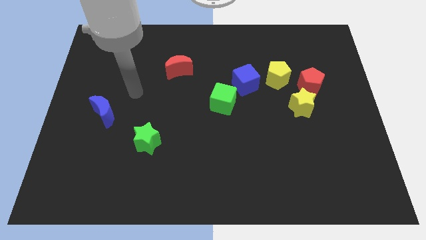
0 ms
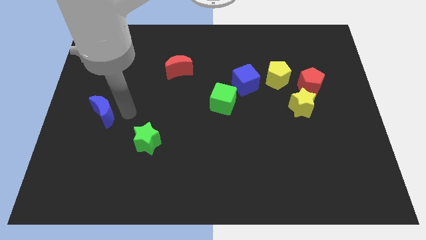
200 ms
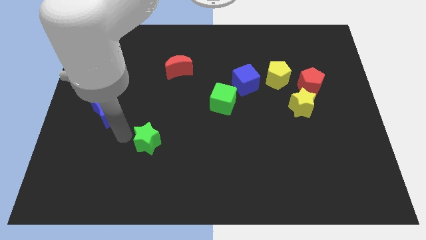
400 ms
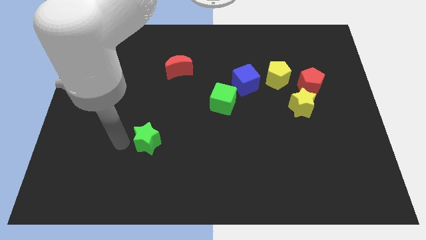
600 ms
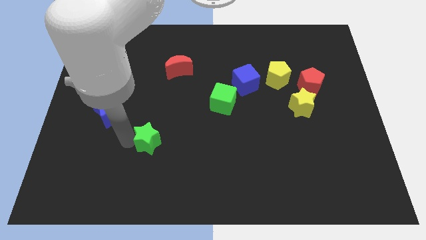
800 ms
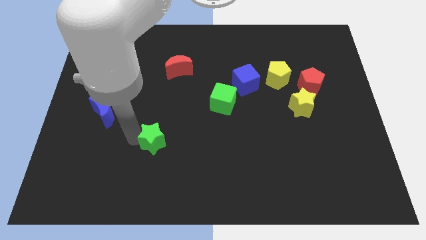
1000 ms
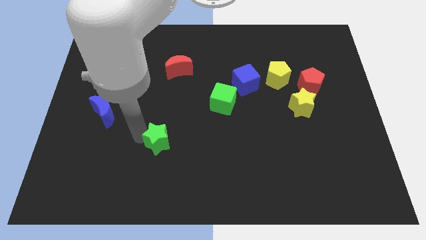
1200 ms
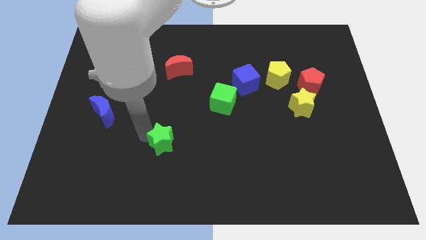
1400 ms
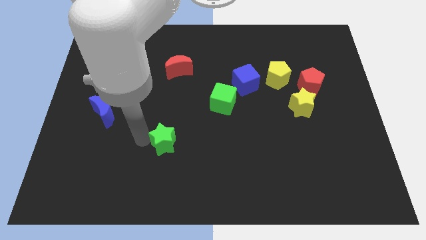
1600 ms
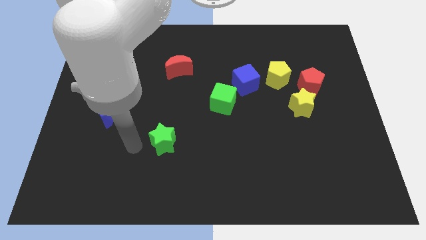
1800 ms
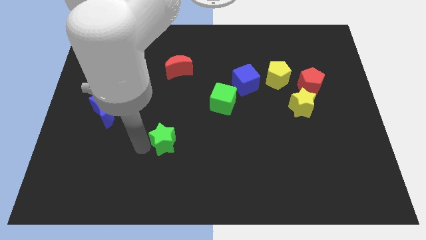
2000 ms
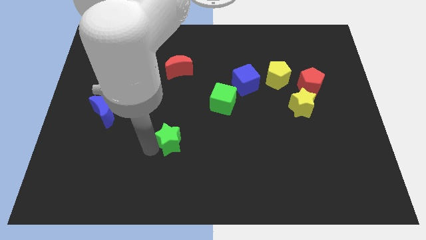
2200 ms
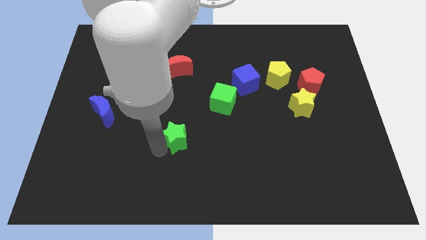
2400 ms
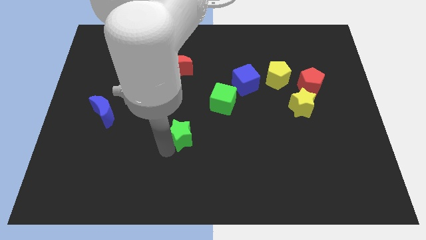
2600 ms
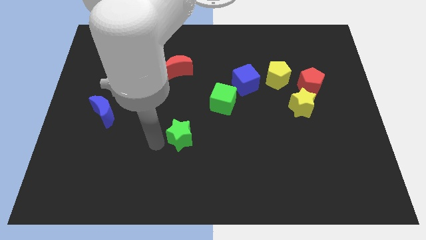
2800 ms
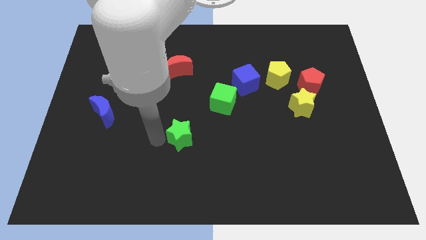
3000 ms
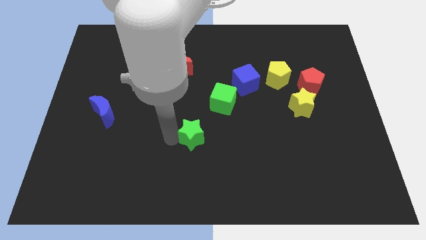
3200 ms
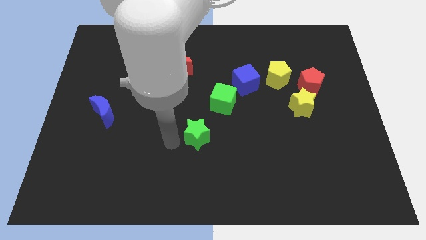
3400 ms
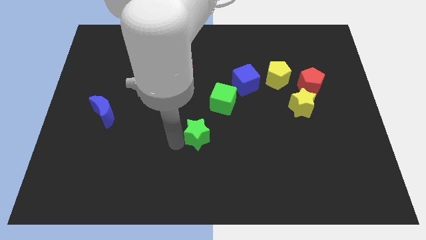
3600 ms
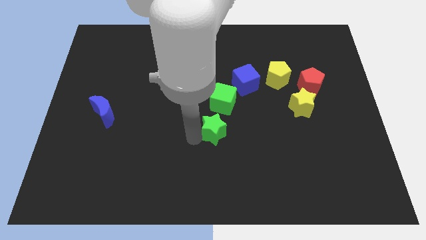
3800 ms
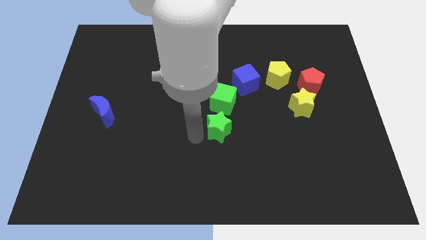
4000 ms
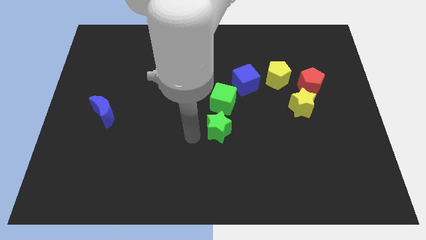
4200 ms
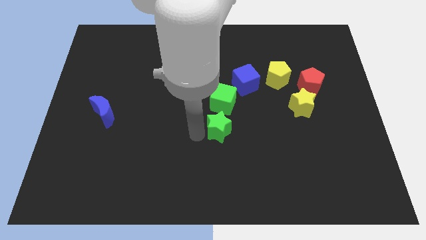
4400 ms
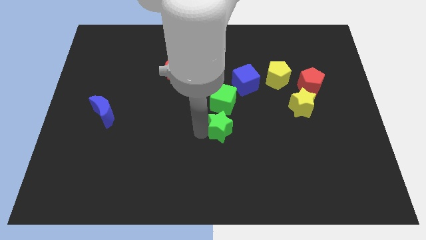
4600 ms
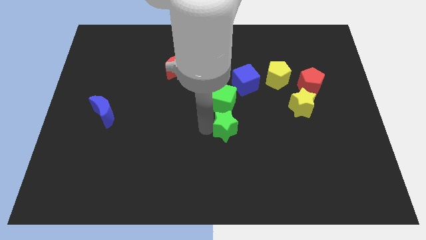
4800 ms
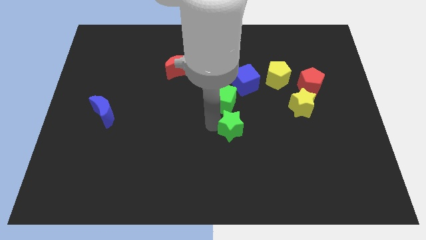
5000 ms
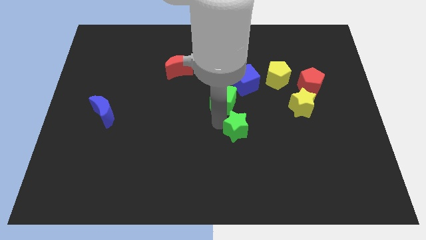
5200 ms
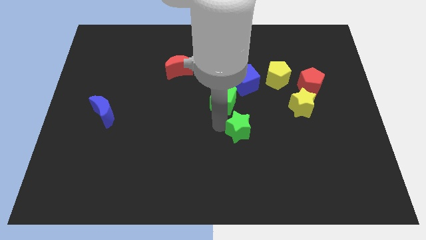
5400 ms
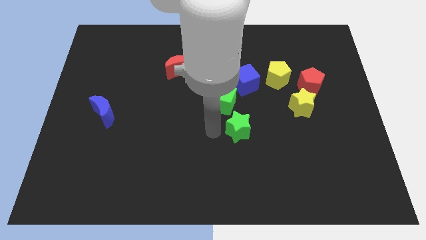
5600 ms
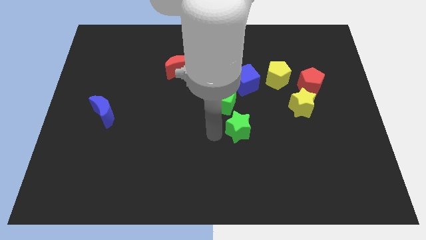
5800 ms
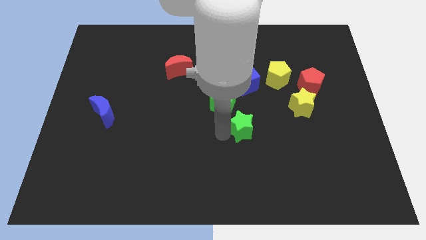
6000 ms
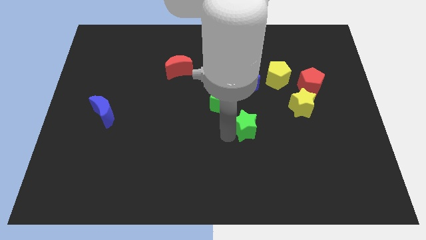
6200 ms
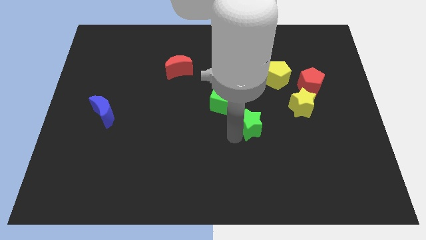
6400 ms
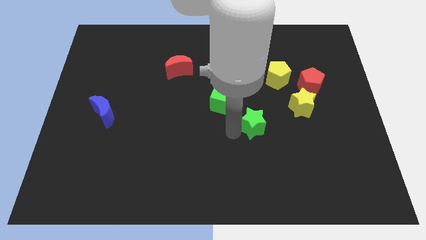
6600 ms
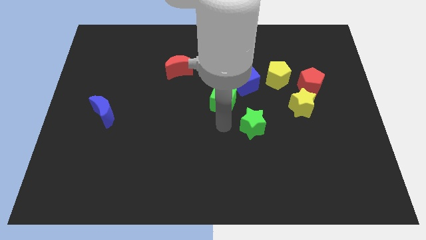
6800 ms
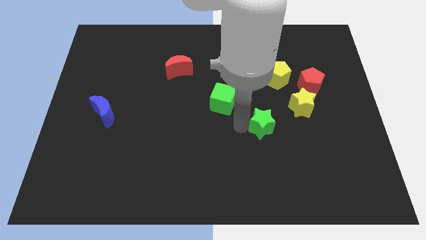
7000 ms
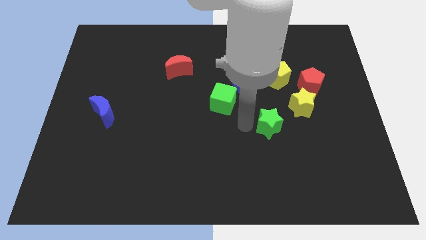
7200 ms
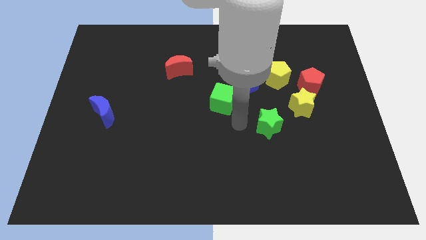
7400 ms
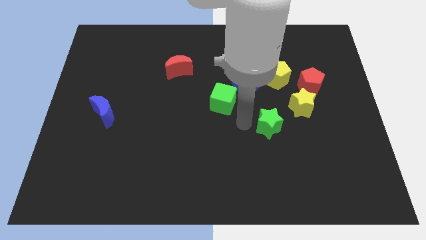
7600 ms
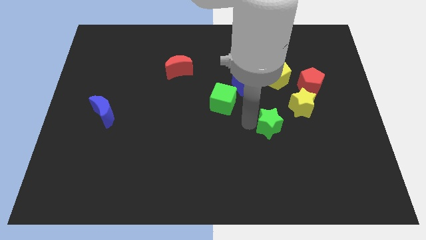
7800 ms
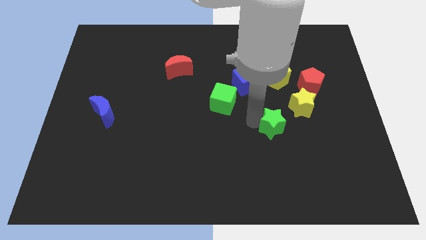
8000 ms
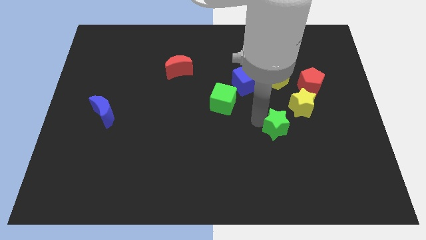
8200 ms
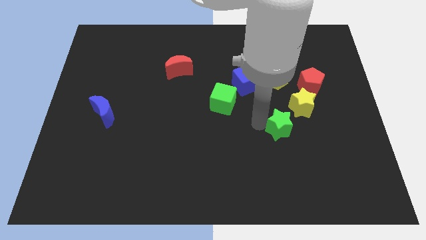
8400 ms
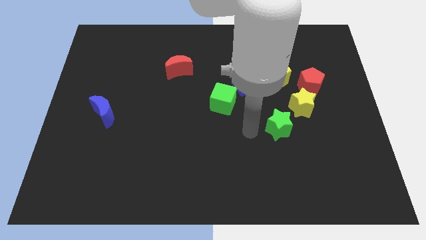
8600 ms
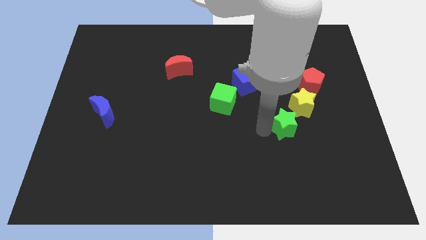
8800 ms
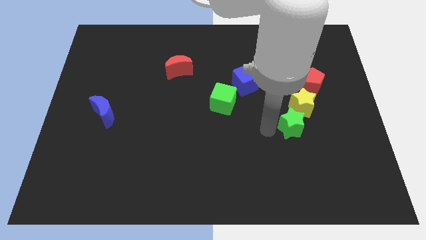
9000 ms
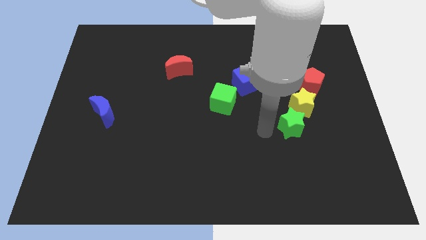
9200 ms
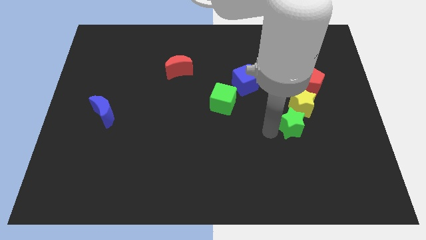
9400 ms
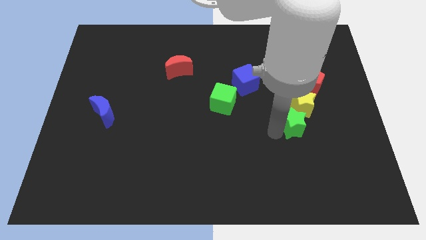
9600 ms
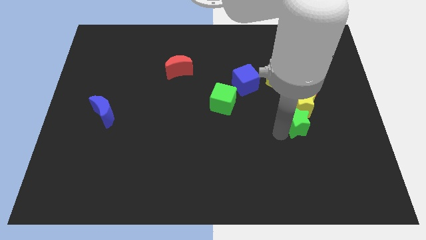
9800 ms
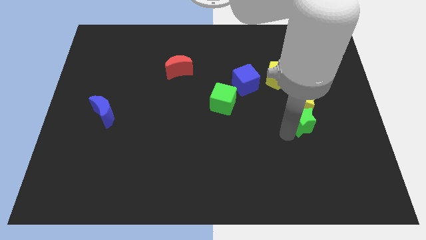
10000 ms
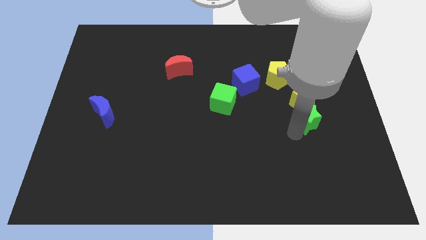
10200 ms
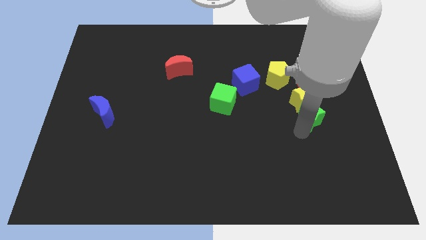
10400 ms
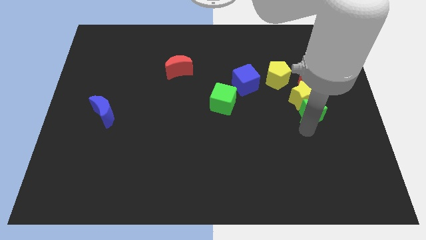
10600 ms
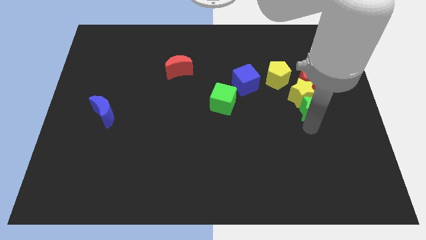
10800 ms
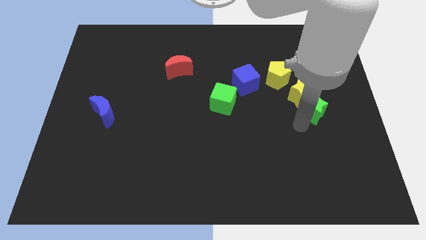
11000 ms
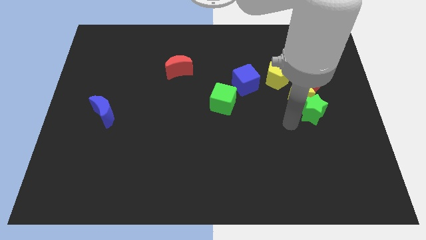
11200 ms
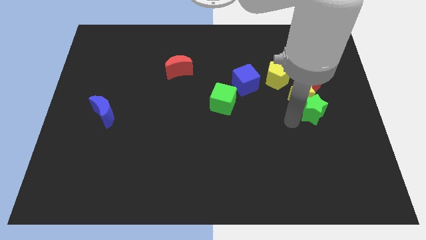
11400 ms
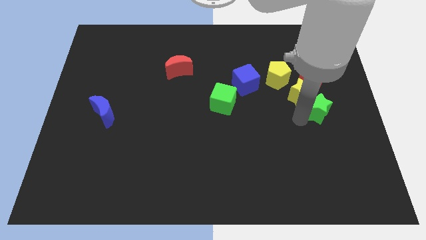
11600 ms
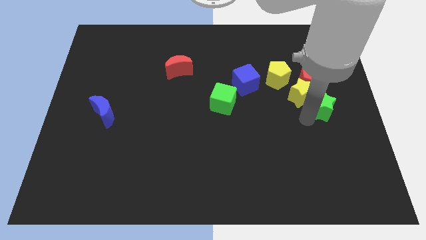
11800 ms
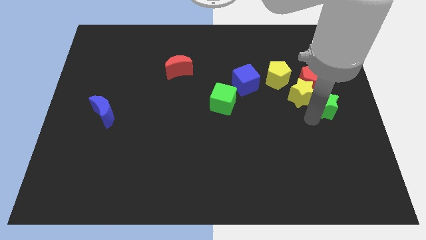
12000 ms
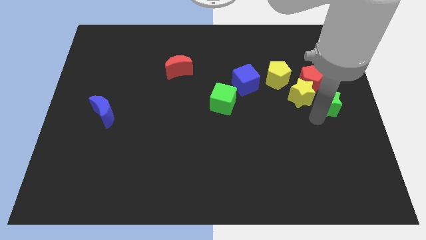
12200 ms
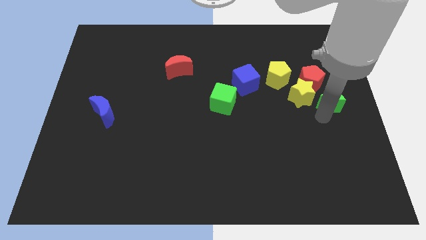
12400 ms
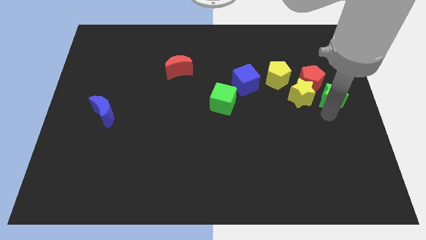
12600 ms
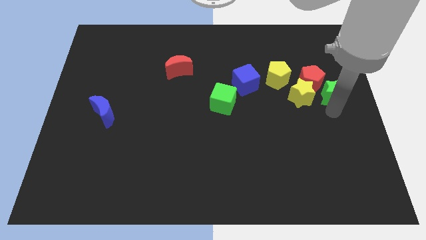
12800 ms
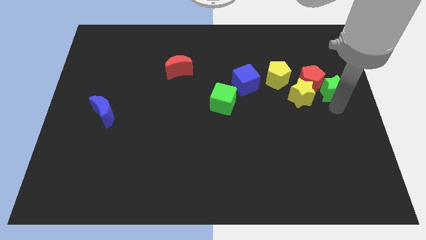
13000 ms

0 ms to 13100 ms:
push the green star to the top right of the yellow star

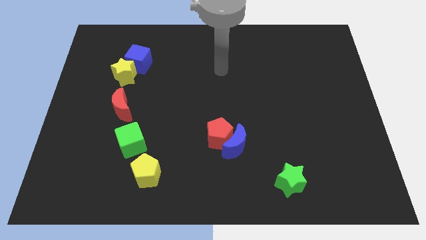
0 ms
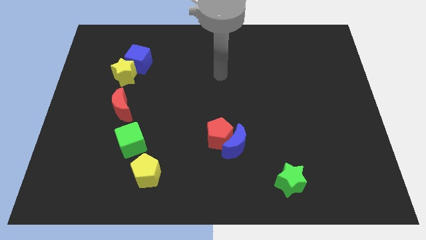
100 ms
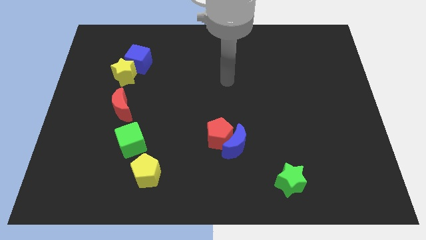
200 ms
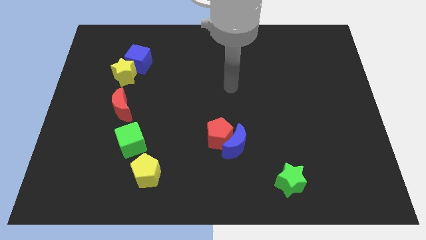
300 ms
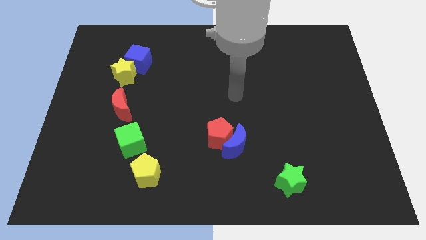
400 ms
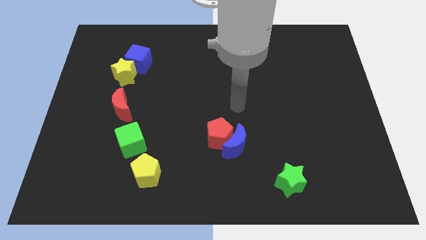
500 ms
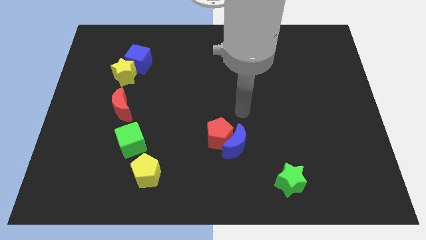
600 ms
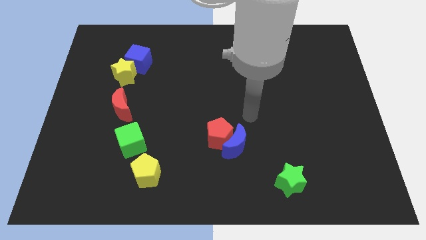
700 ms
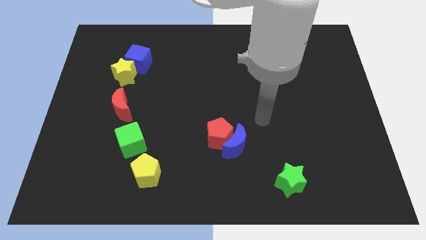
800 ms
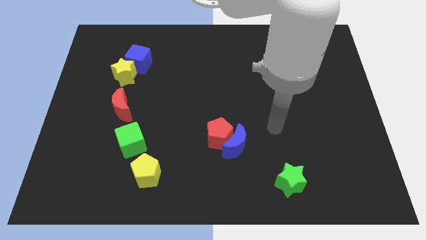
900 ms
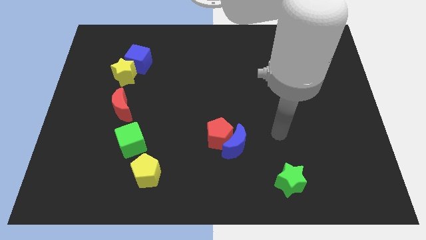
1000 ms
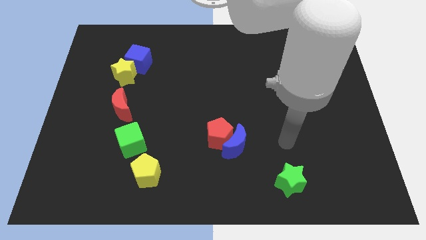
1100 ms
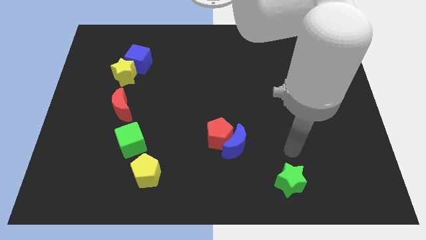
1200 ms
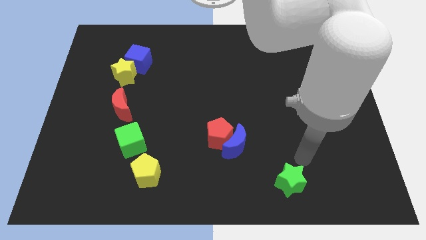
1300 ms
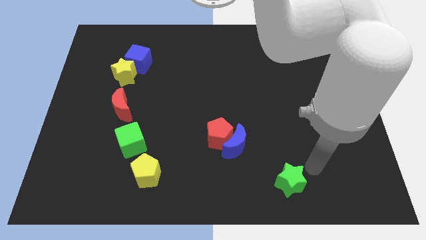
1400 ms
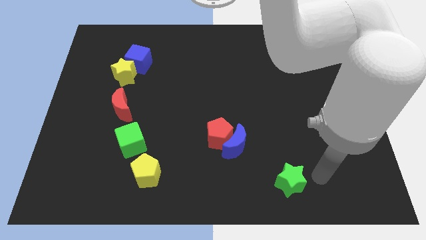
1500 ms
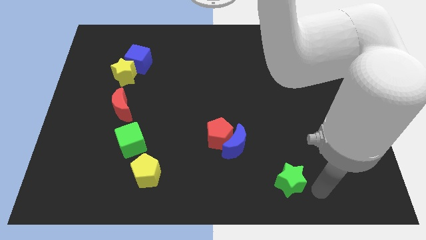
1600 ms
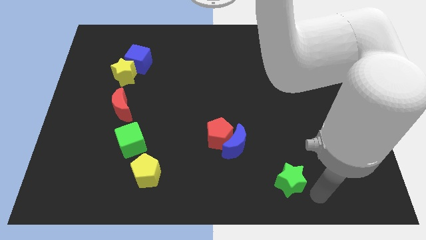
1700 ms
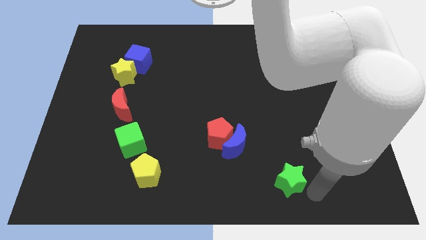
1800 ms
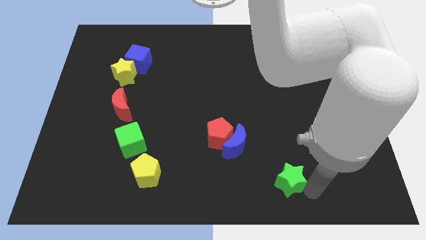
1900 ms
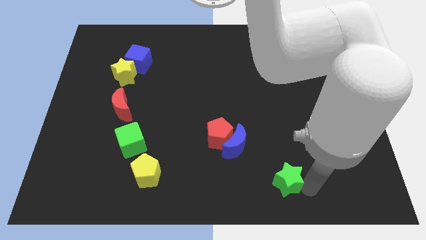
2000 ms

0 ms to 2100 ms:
slide the green star to the bottom right side of the blue moon
